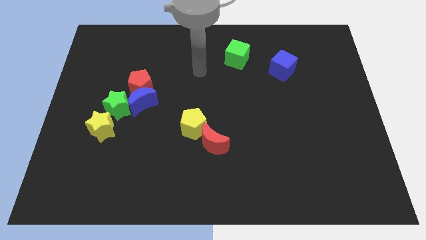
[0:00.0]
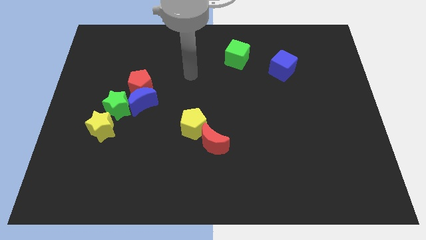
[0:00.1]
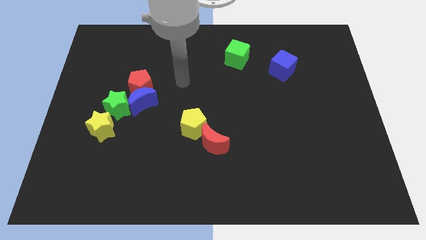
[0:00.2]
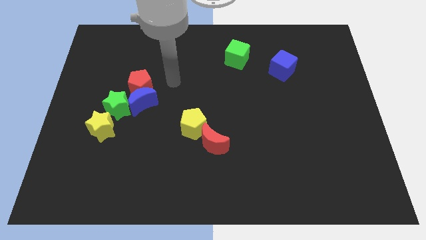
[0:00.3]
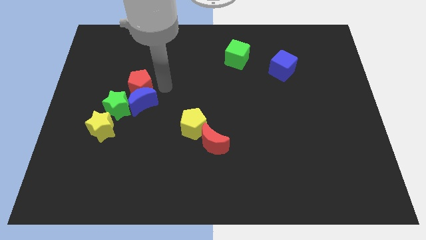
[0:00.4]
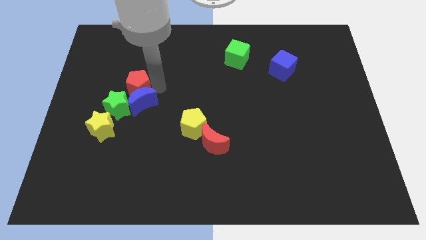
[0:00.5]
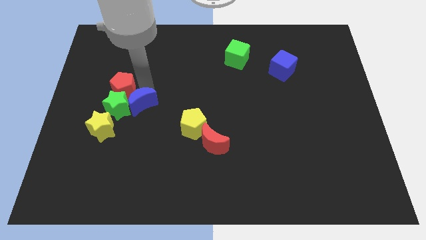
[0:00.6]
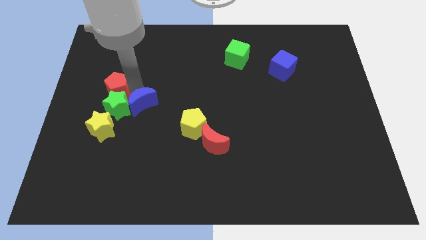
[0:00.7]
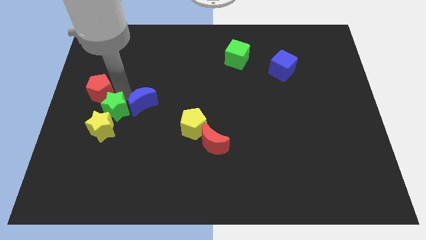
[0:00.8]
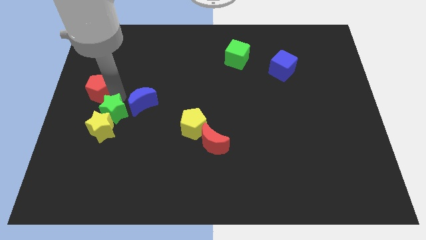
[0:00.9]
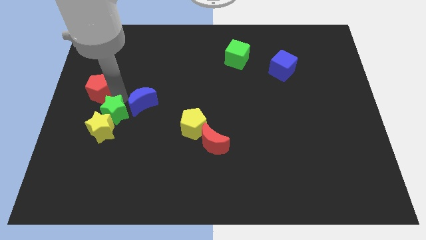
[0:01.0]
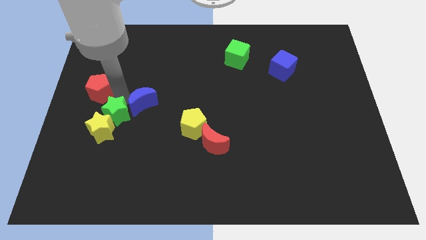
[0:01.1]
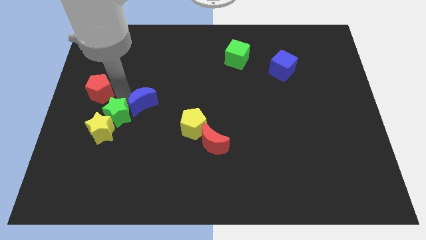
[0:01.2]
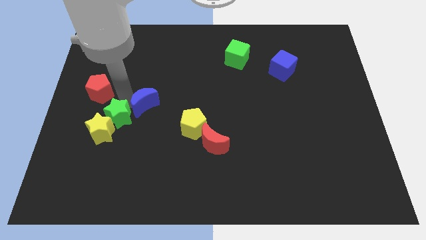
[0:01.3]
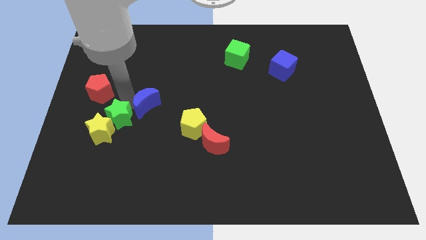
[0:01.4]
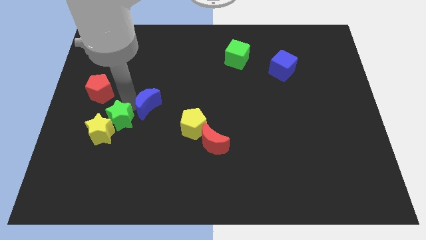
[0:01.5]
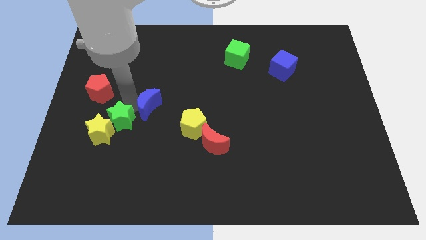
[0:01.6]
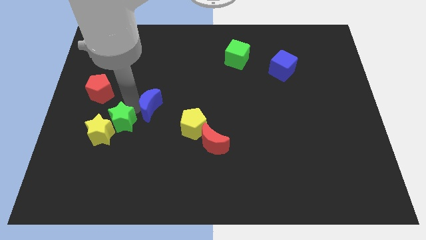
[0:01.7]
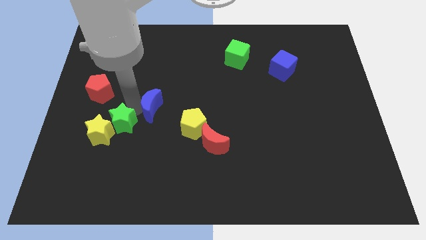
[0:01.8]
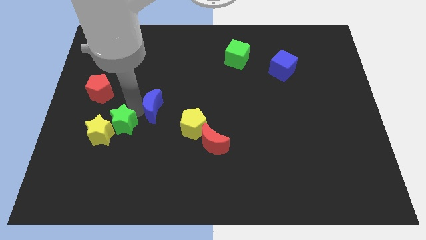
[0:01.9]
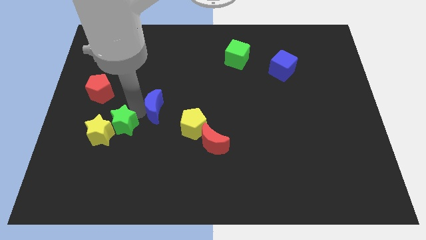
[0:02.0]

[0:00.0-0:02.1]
move the blue moon away from the red pentagon and green star

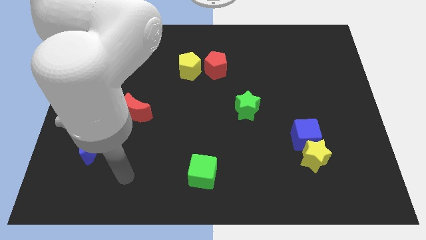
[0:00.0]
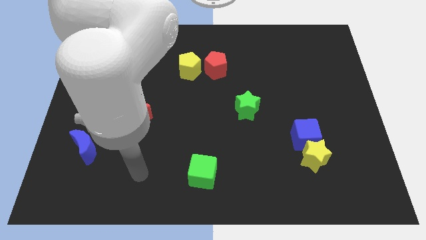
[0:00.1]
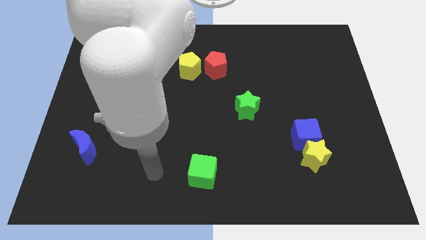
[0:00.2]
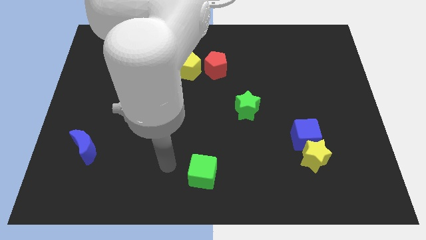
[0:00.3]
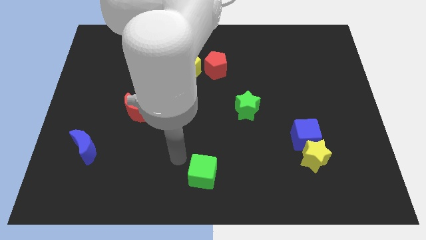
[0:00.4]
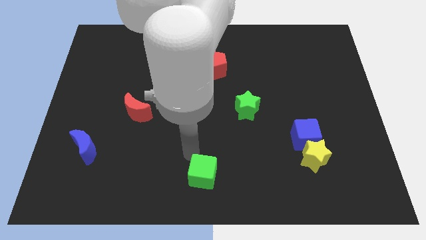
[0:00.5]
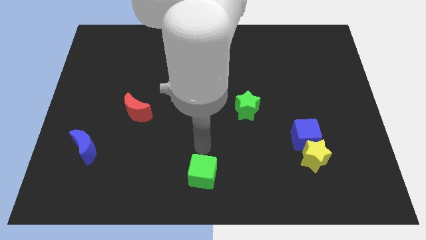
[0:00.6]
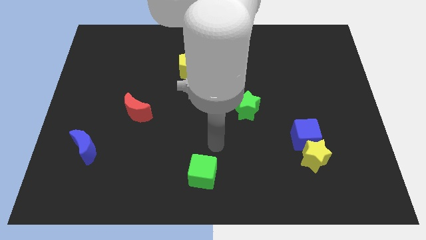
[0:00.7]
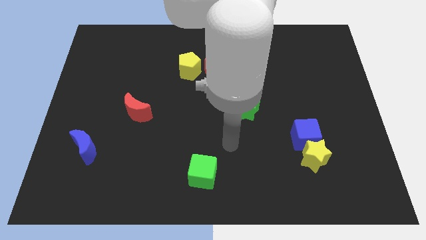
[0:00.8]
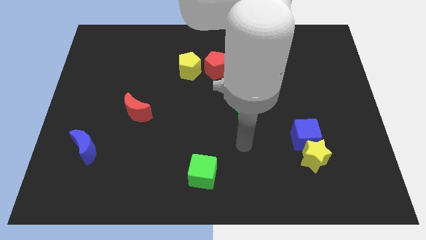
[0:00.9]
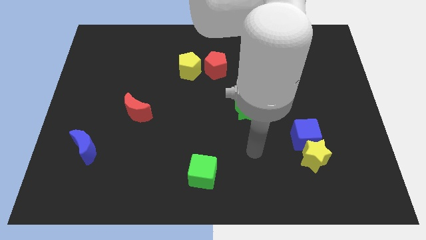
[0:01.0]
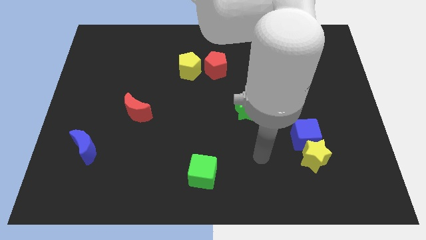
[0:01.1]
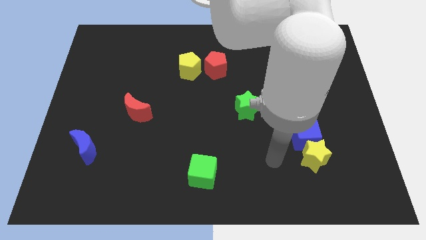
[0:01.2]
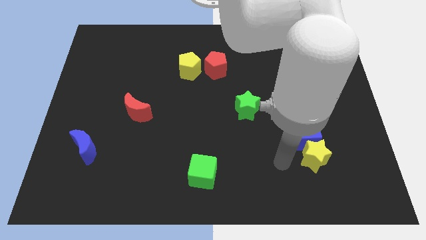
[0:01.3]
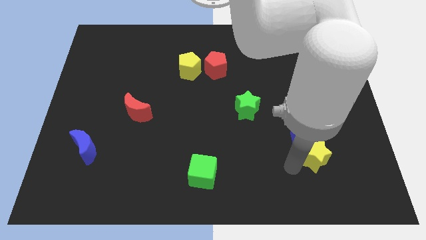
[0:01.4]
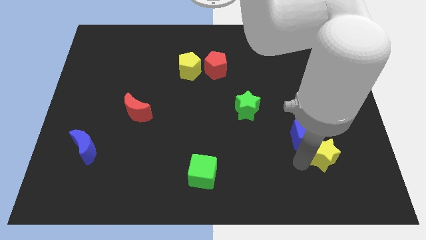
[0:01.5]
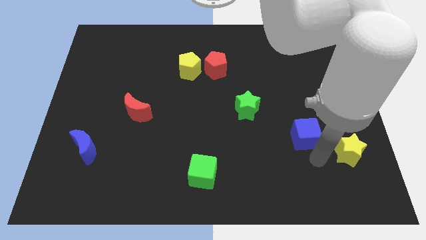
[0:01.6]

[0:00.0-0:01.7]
move the blue cube away from the yellow star

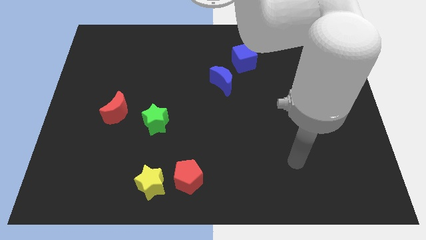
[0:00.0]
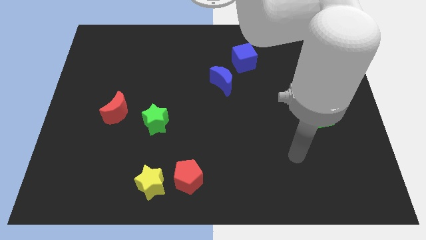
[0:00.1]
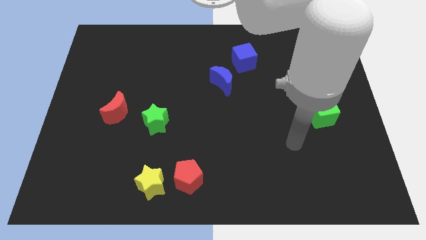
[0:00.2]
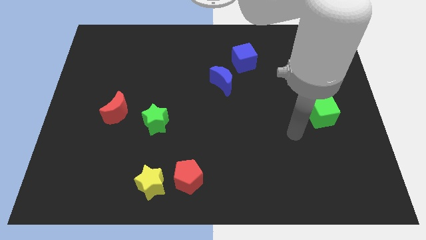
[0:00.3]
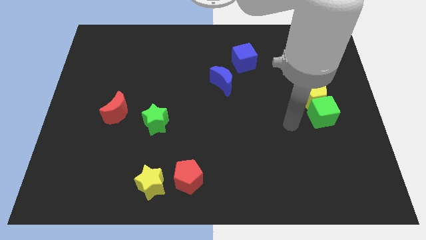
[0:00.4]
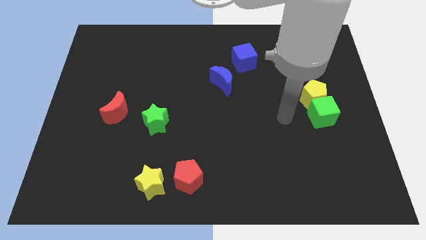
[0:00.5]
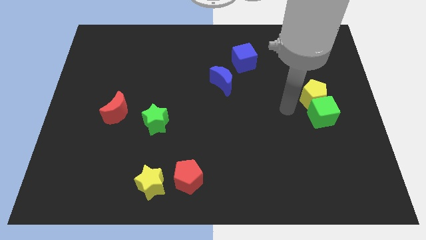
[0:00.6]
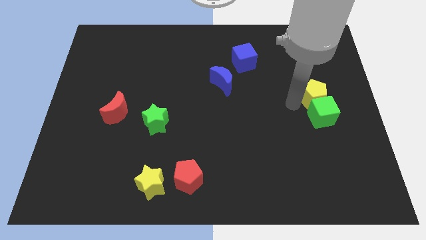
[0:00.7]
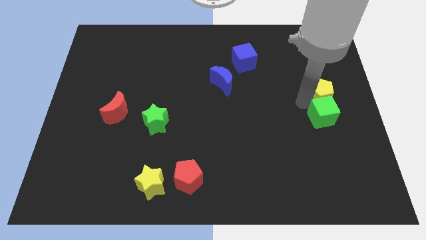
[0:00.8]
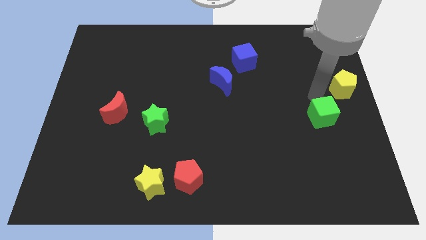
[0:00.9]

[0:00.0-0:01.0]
separate the green cube from the yellow pentagon

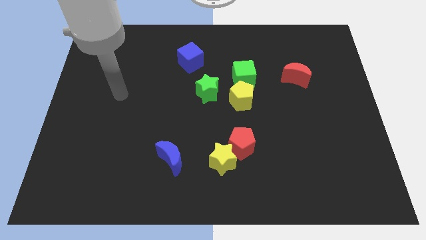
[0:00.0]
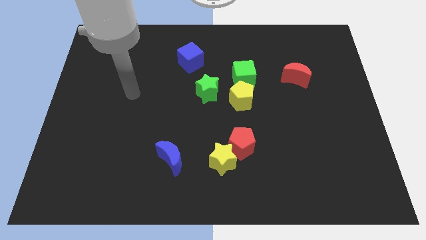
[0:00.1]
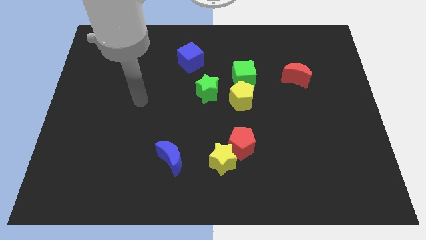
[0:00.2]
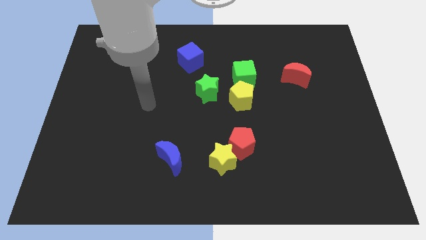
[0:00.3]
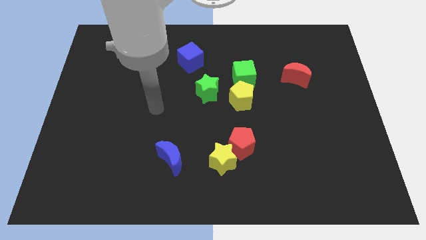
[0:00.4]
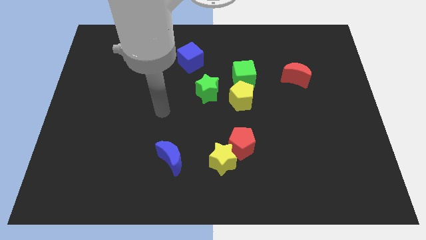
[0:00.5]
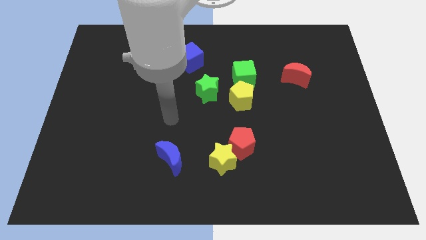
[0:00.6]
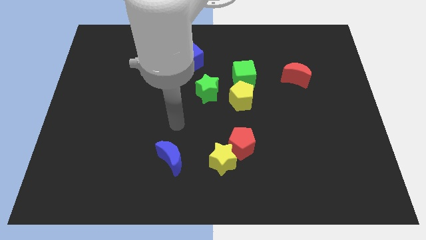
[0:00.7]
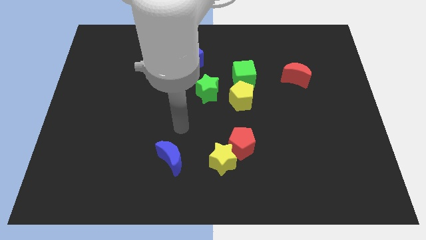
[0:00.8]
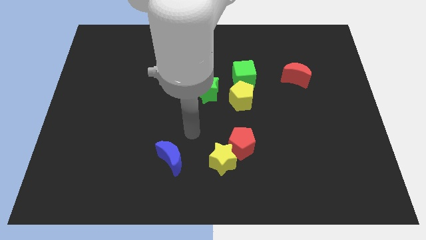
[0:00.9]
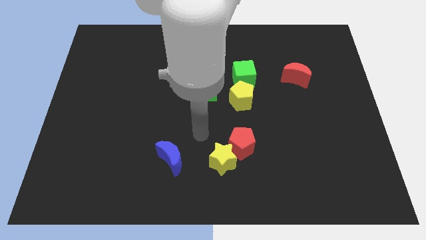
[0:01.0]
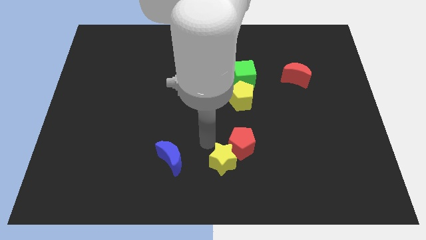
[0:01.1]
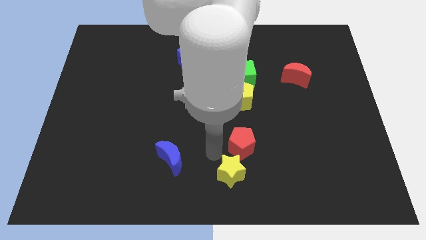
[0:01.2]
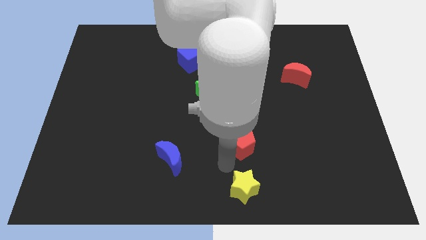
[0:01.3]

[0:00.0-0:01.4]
pull the red pentagon apart from the yellow star

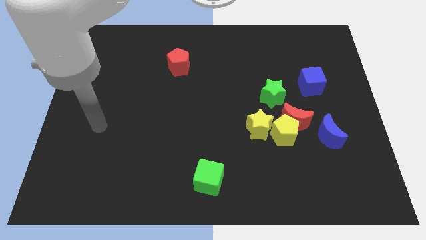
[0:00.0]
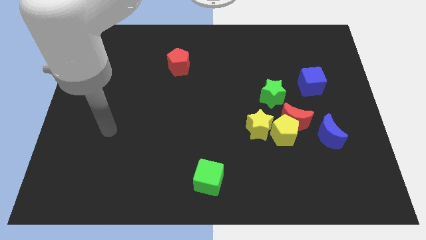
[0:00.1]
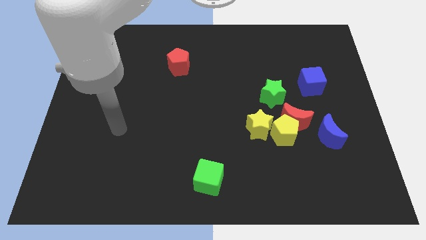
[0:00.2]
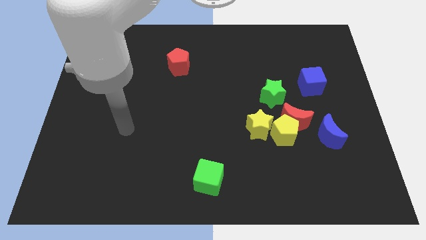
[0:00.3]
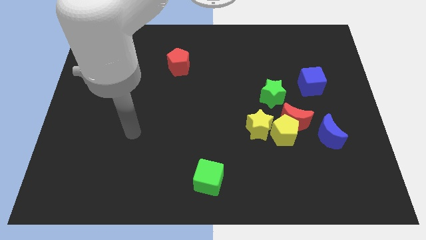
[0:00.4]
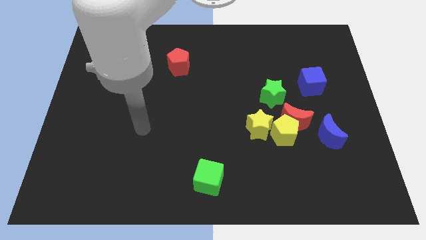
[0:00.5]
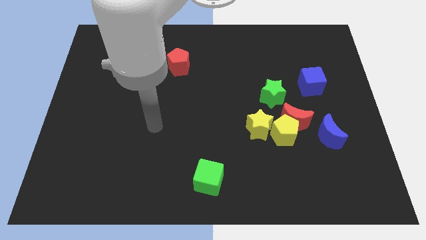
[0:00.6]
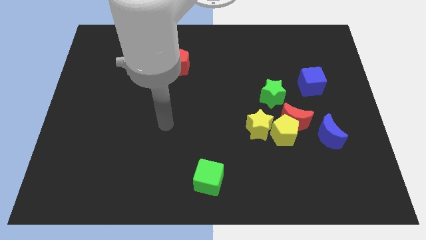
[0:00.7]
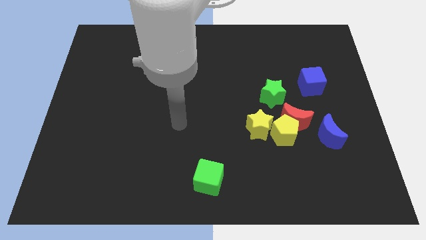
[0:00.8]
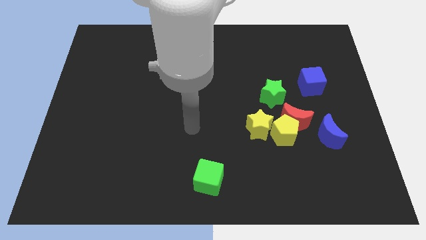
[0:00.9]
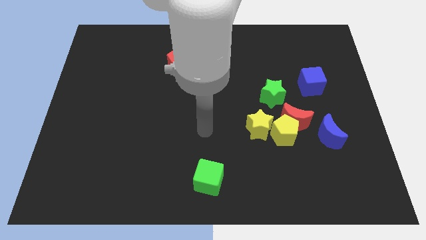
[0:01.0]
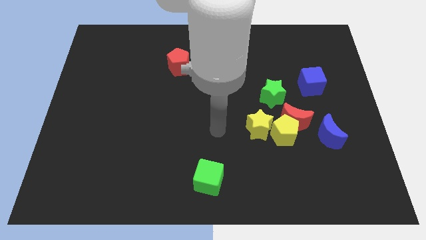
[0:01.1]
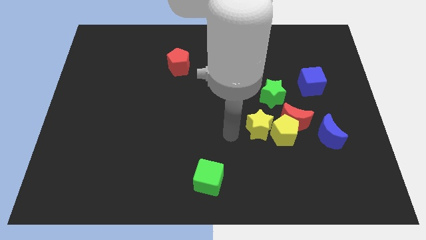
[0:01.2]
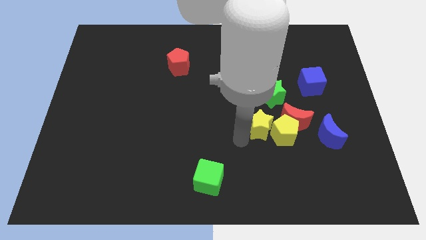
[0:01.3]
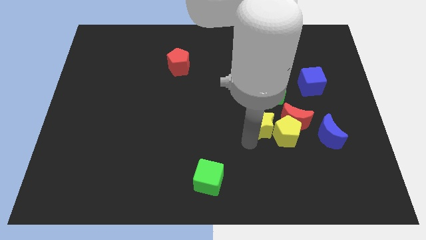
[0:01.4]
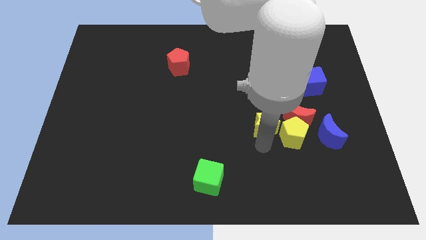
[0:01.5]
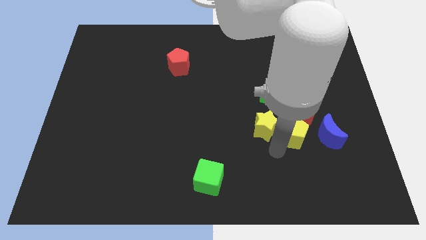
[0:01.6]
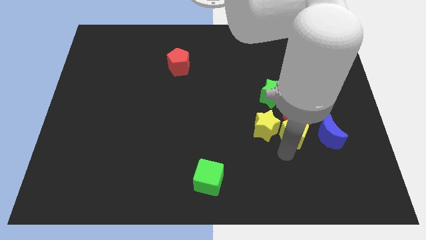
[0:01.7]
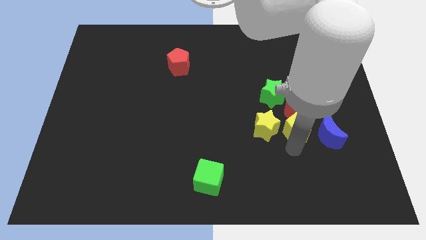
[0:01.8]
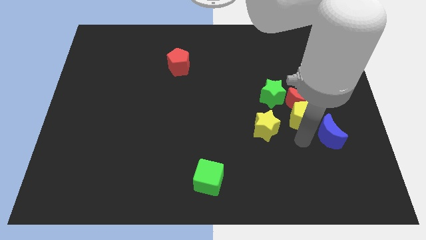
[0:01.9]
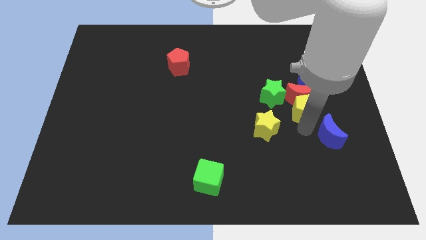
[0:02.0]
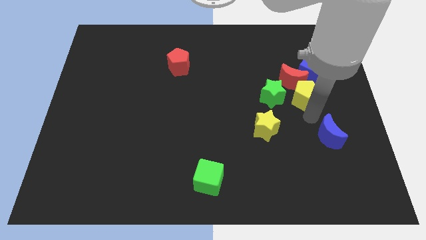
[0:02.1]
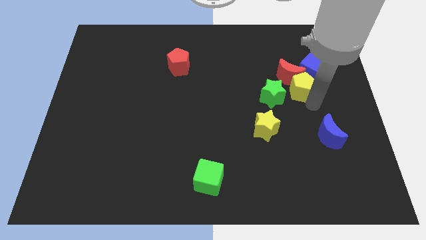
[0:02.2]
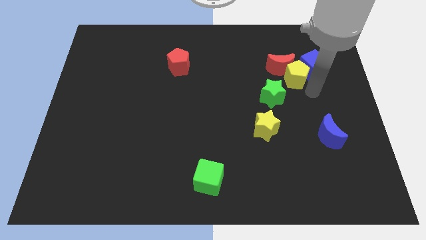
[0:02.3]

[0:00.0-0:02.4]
move the yellow pentagon away from the clump

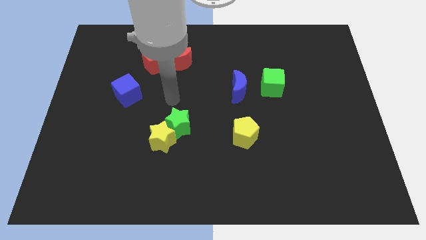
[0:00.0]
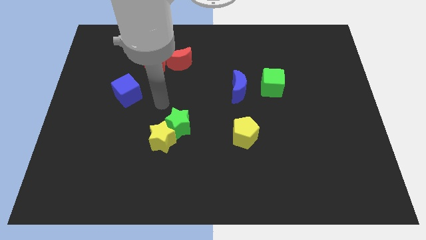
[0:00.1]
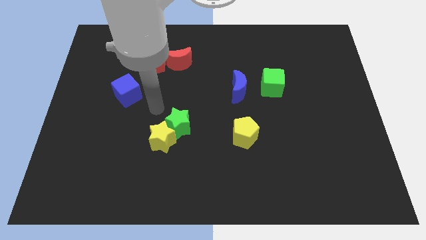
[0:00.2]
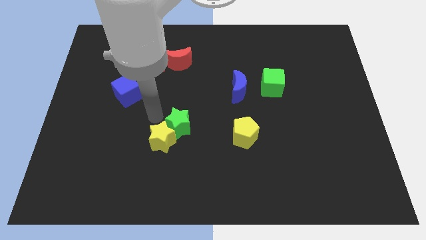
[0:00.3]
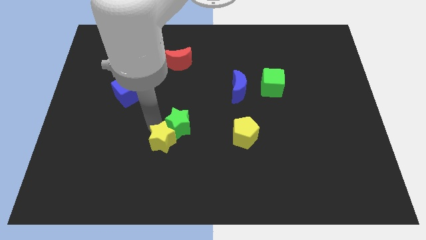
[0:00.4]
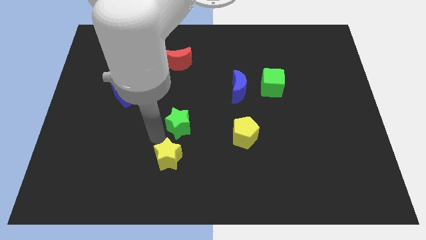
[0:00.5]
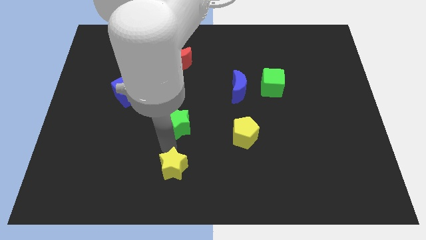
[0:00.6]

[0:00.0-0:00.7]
separate the green star from the yellow star

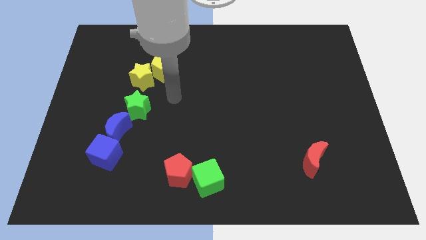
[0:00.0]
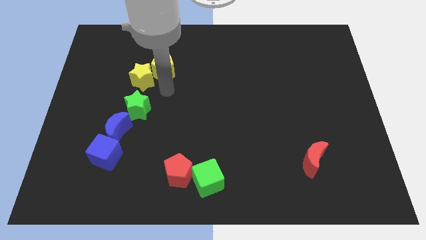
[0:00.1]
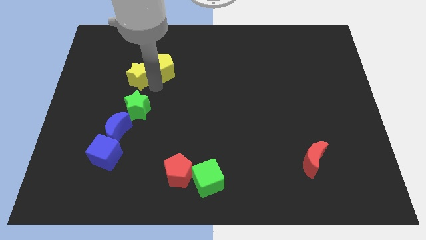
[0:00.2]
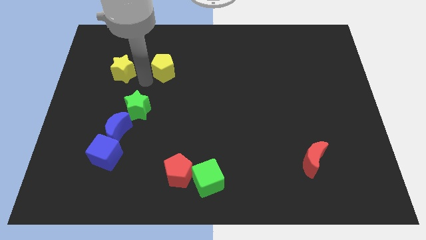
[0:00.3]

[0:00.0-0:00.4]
pull the yellow pentagon apart from the yellow star
